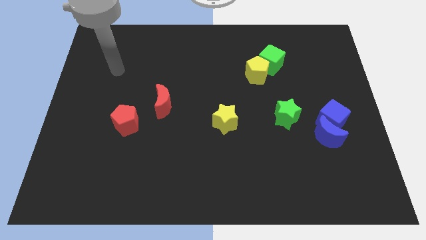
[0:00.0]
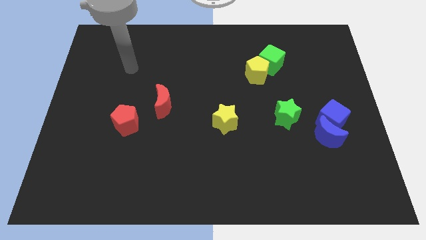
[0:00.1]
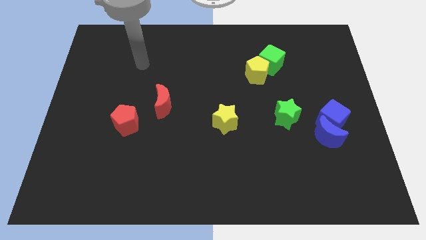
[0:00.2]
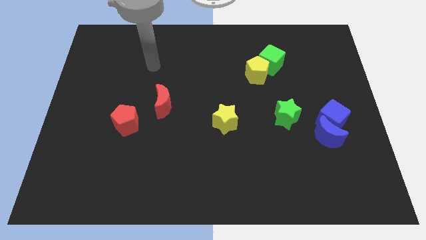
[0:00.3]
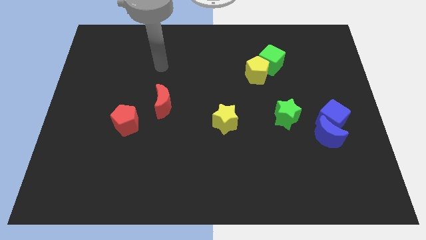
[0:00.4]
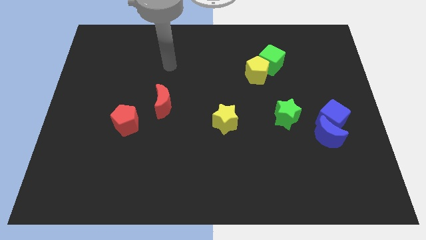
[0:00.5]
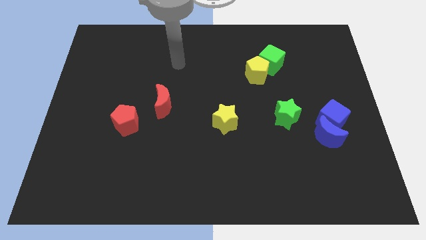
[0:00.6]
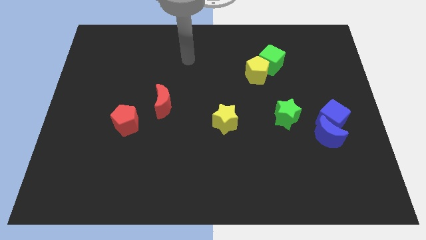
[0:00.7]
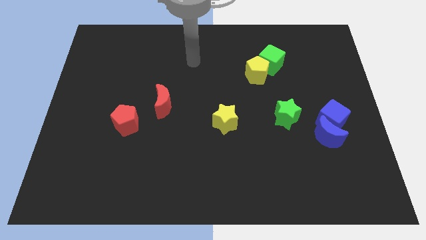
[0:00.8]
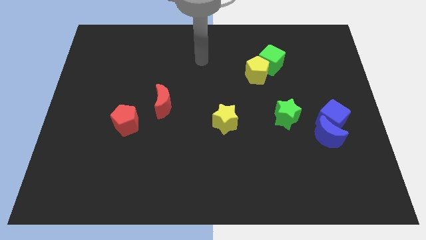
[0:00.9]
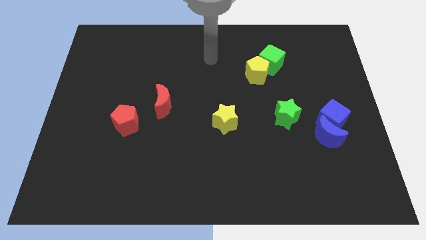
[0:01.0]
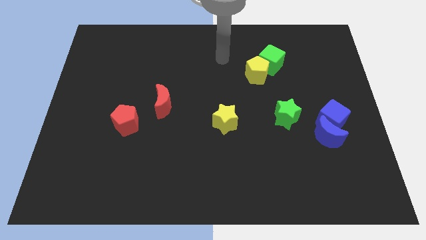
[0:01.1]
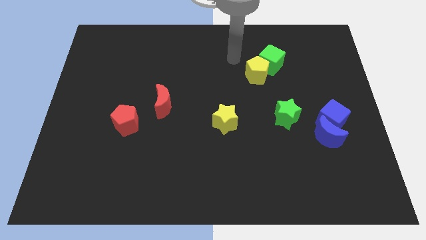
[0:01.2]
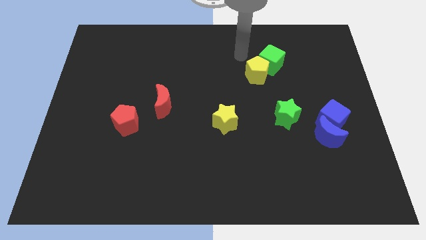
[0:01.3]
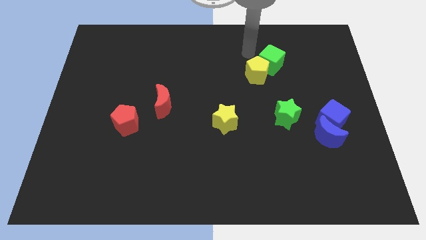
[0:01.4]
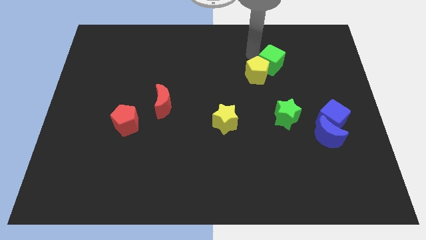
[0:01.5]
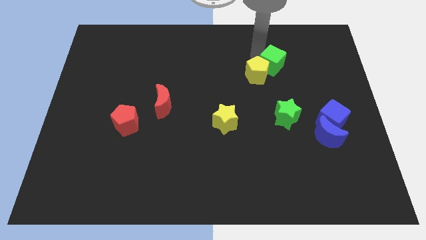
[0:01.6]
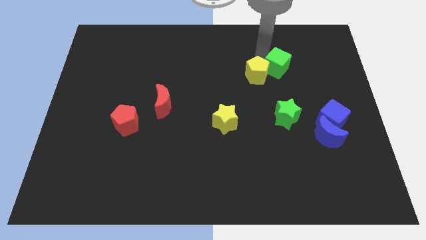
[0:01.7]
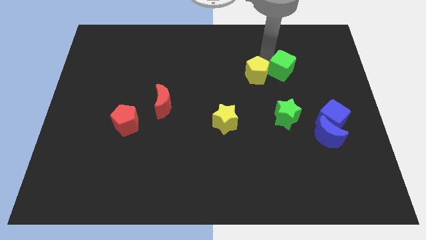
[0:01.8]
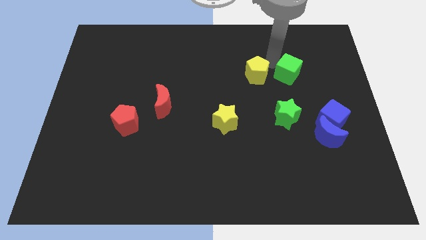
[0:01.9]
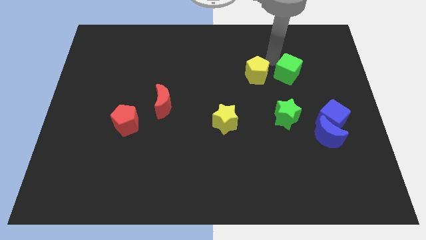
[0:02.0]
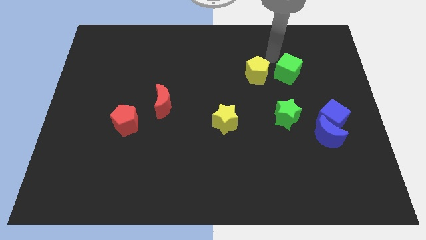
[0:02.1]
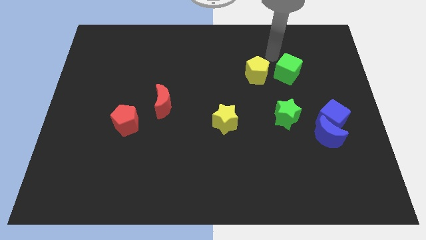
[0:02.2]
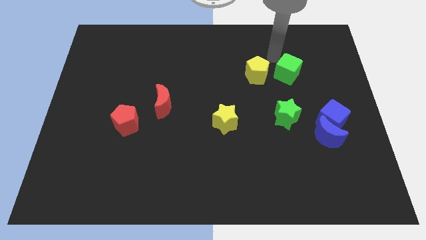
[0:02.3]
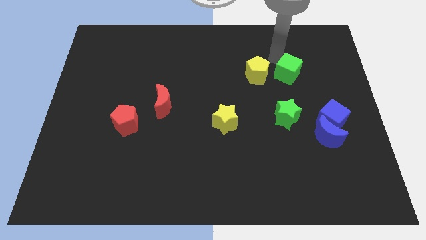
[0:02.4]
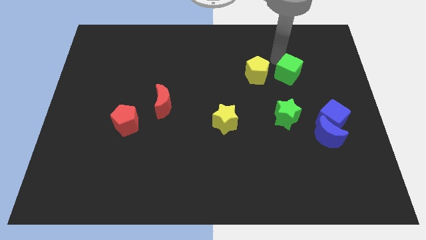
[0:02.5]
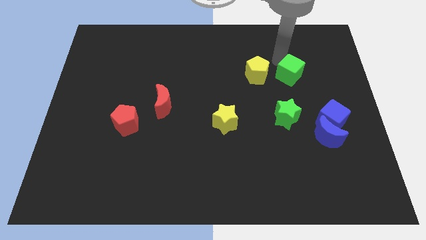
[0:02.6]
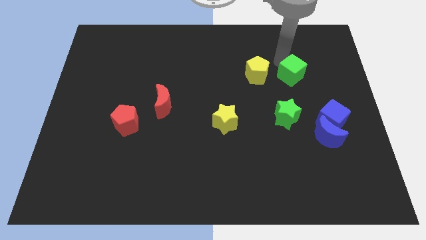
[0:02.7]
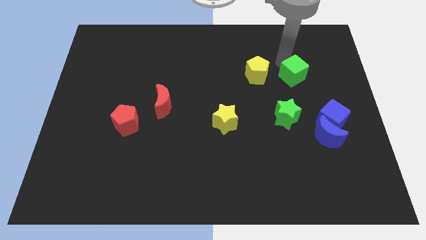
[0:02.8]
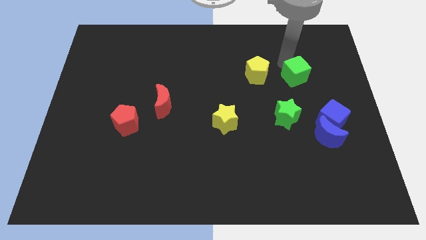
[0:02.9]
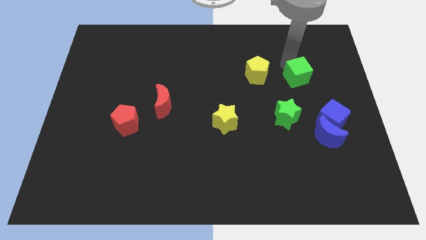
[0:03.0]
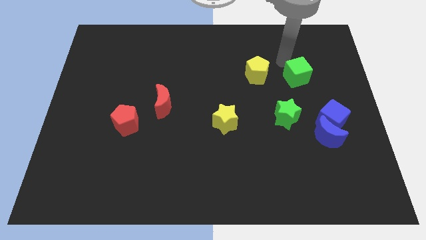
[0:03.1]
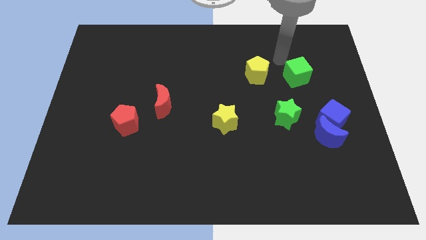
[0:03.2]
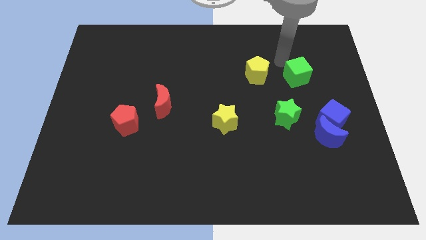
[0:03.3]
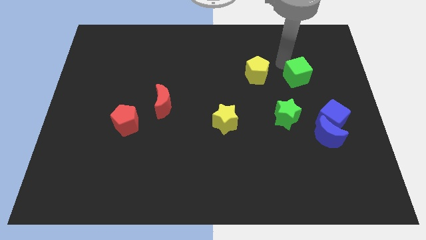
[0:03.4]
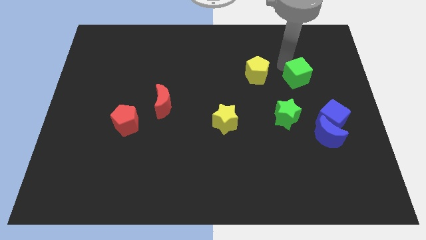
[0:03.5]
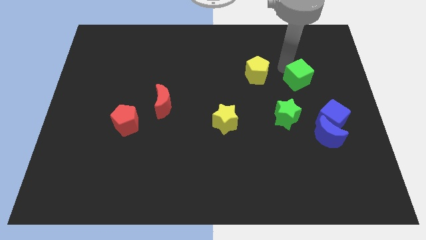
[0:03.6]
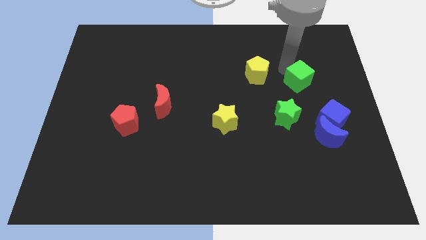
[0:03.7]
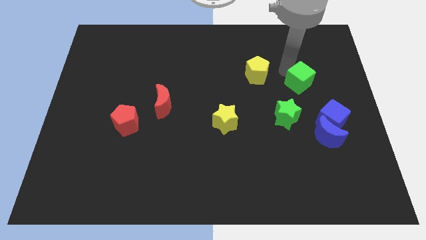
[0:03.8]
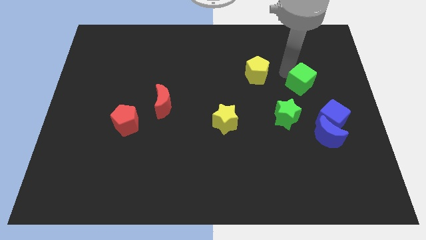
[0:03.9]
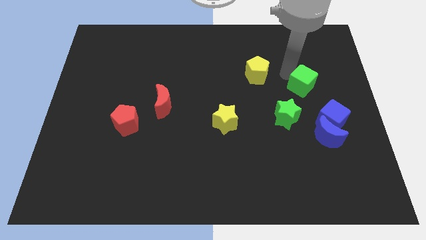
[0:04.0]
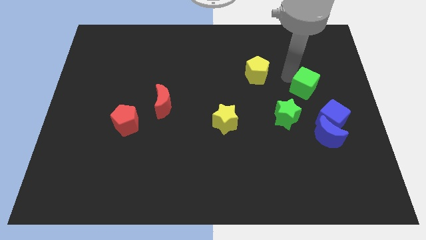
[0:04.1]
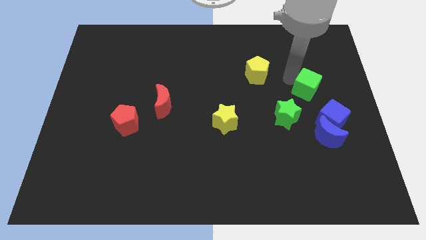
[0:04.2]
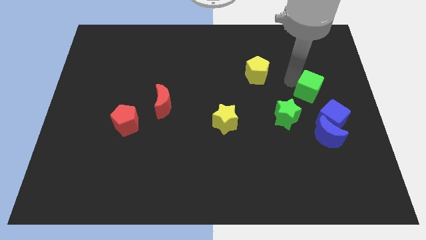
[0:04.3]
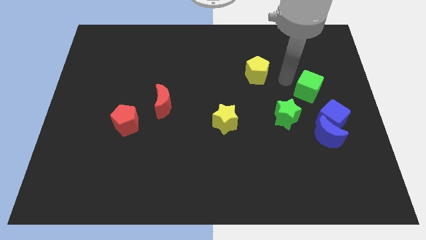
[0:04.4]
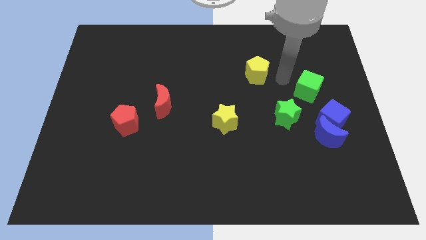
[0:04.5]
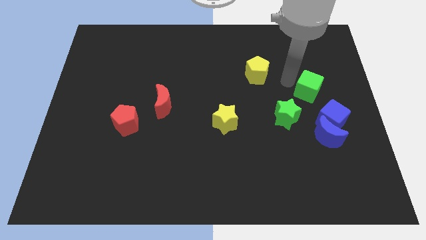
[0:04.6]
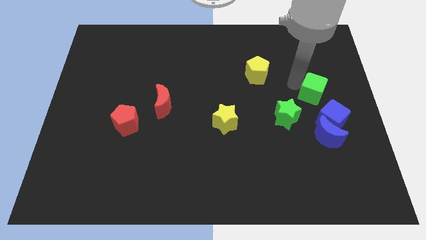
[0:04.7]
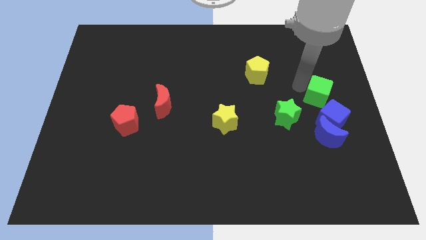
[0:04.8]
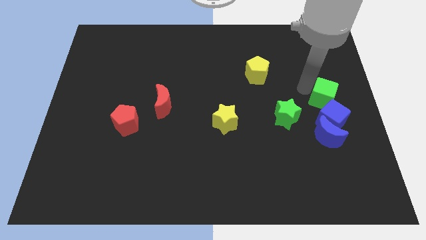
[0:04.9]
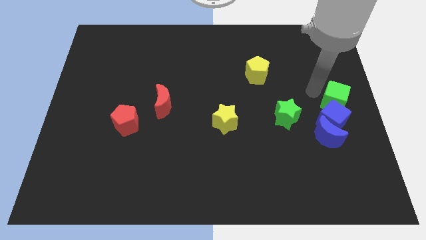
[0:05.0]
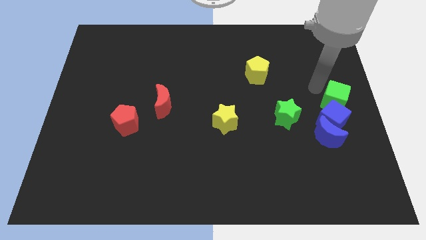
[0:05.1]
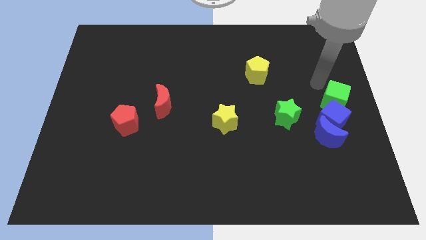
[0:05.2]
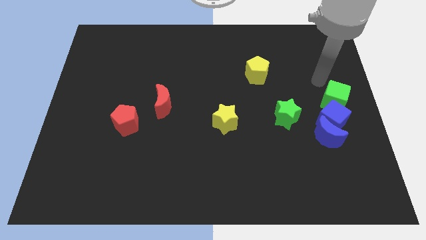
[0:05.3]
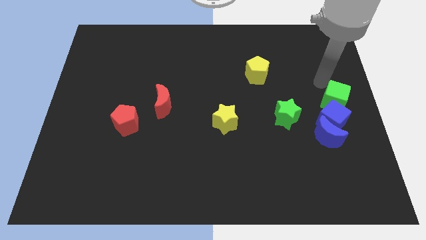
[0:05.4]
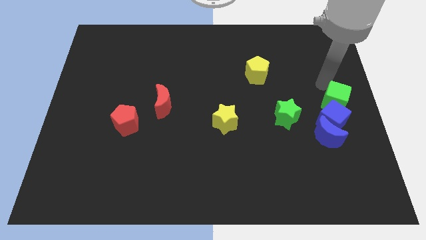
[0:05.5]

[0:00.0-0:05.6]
push the green cube just right of the green star

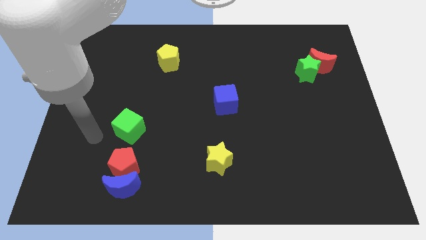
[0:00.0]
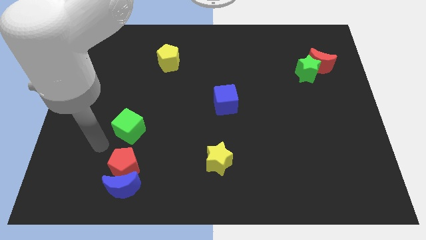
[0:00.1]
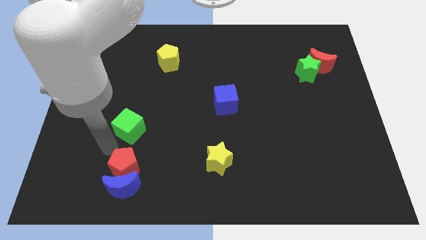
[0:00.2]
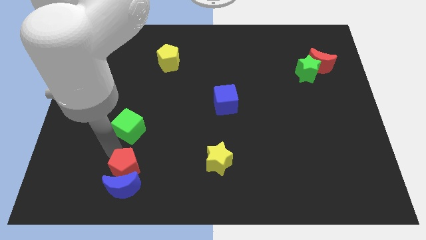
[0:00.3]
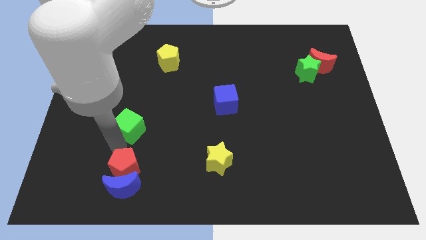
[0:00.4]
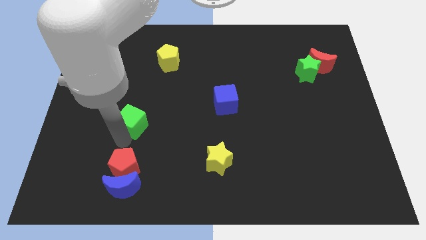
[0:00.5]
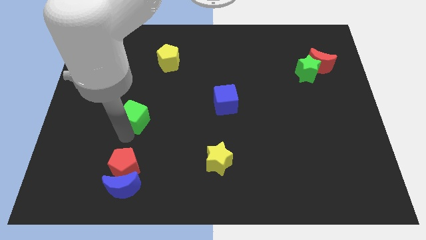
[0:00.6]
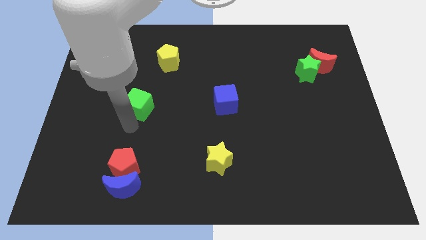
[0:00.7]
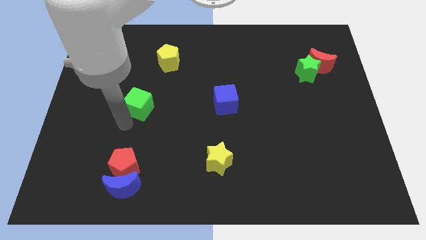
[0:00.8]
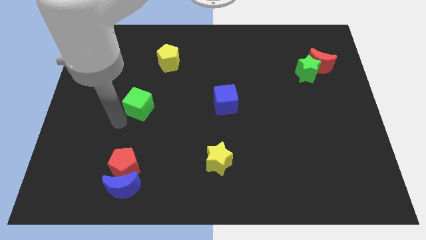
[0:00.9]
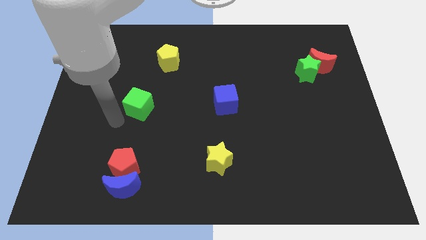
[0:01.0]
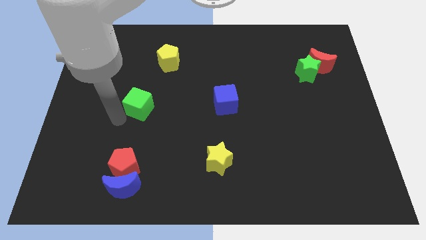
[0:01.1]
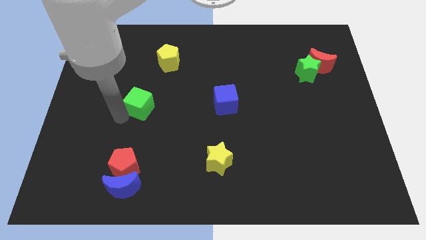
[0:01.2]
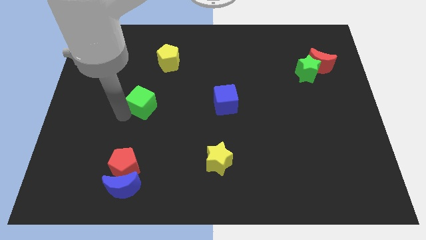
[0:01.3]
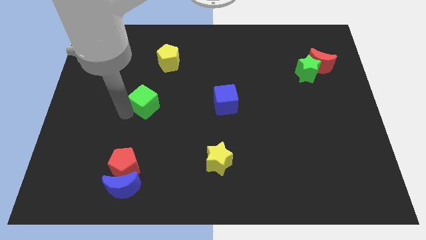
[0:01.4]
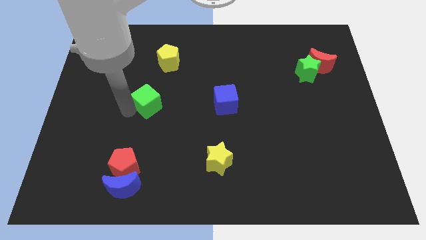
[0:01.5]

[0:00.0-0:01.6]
push the green cube to the bottom side of the yellow pentagon
